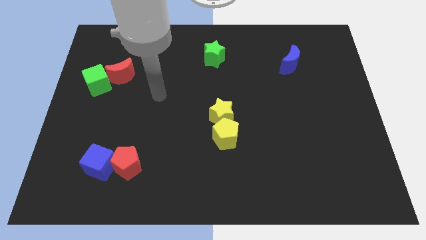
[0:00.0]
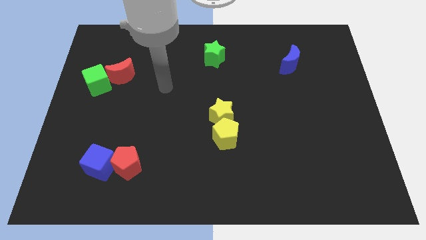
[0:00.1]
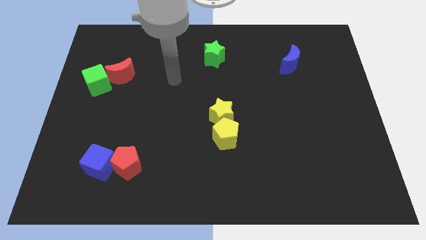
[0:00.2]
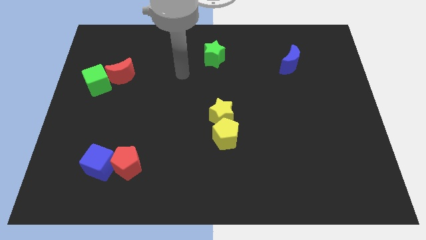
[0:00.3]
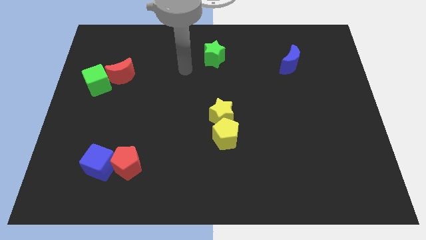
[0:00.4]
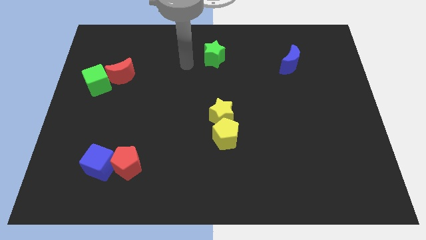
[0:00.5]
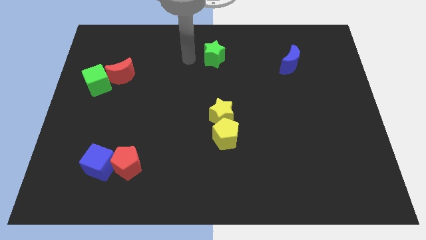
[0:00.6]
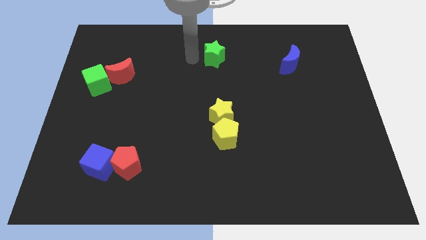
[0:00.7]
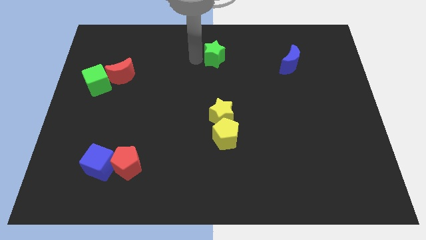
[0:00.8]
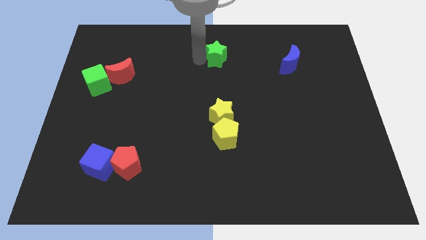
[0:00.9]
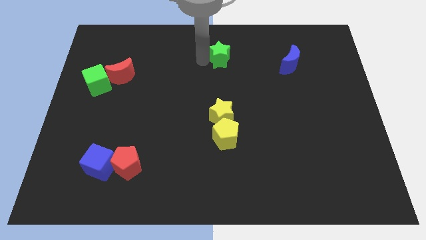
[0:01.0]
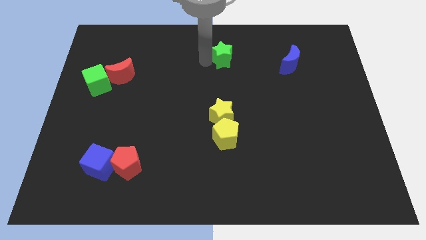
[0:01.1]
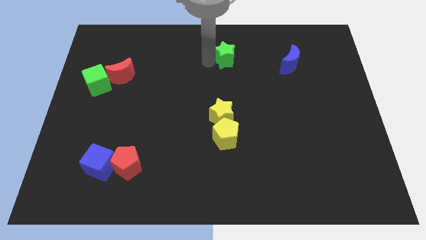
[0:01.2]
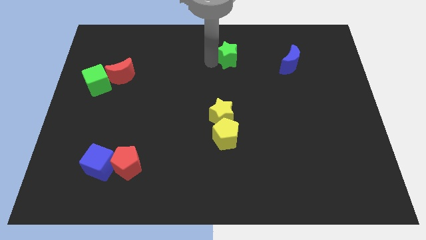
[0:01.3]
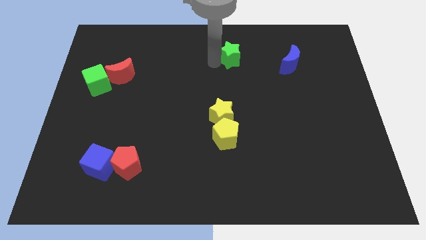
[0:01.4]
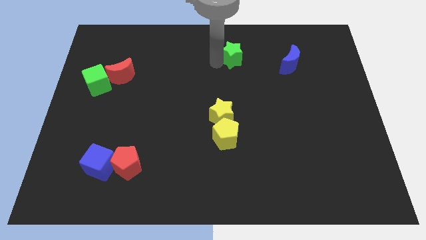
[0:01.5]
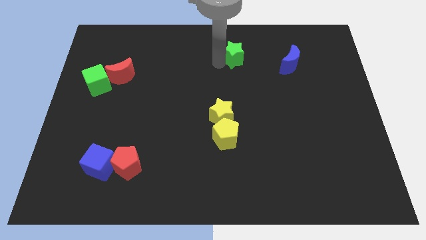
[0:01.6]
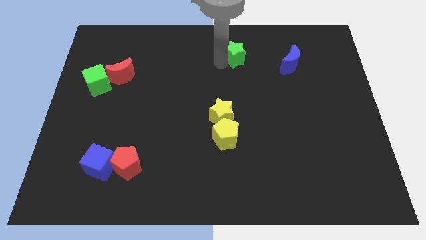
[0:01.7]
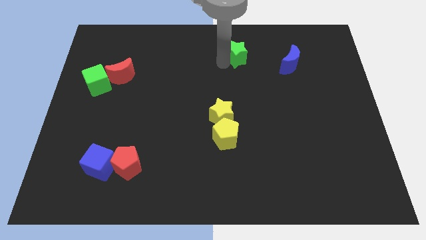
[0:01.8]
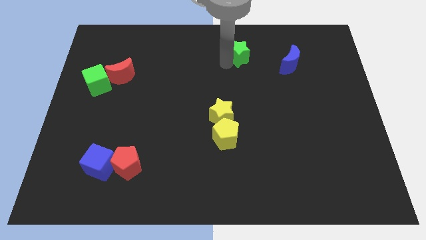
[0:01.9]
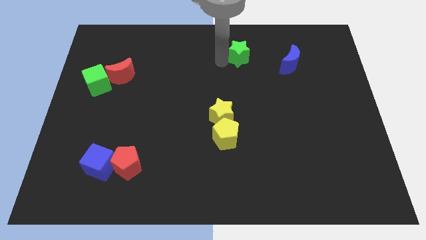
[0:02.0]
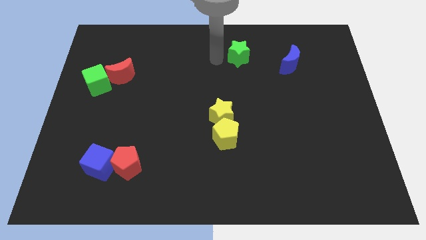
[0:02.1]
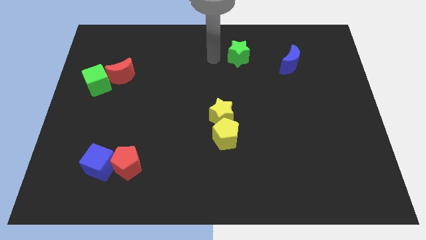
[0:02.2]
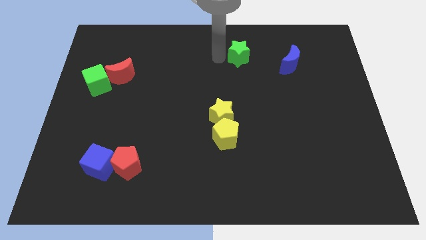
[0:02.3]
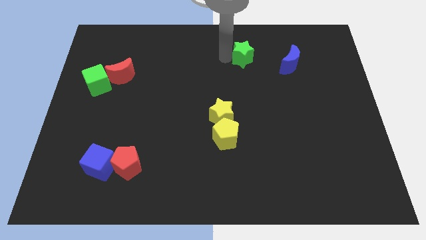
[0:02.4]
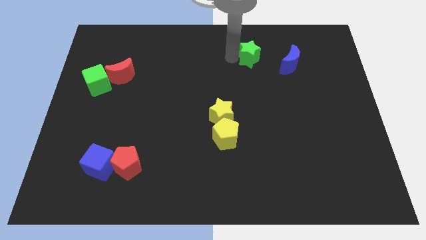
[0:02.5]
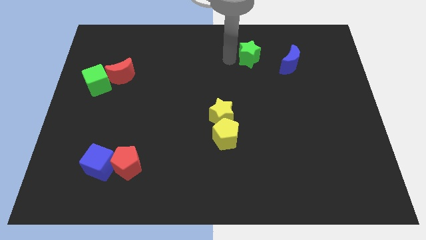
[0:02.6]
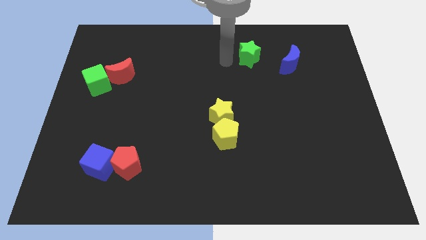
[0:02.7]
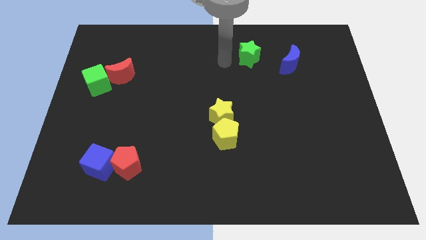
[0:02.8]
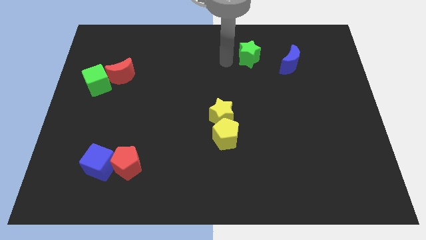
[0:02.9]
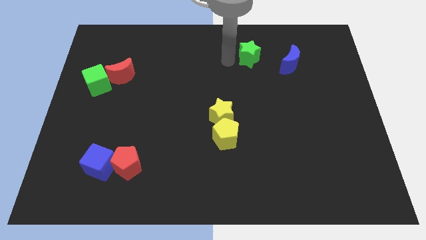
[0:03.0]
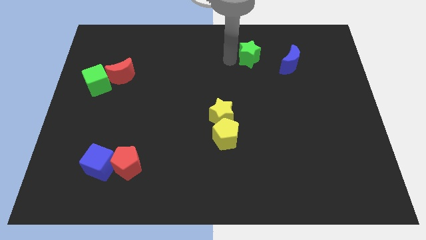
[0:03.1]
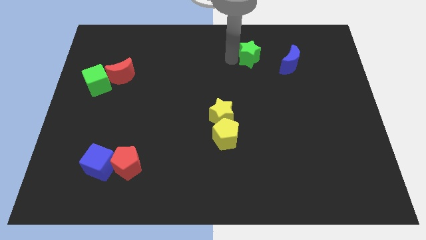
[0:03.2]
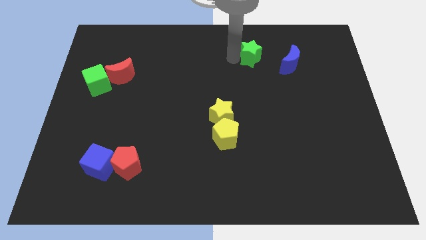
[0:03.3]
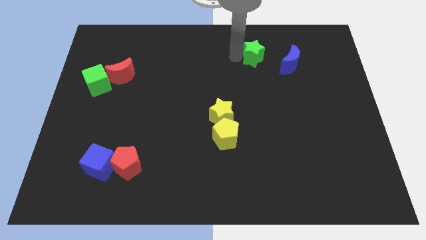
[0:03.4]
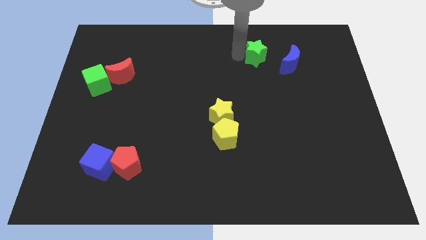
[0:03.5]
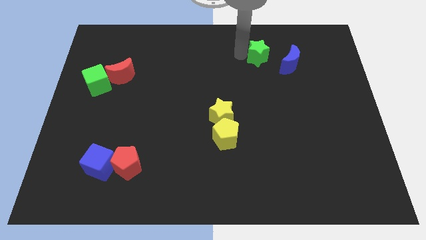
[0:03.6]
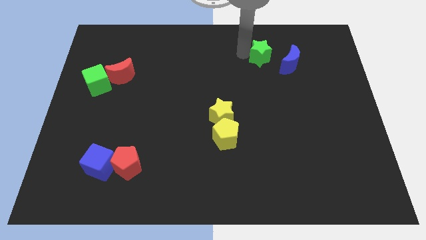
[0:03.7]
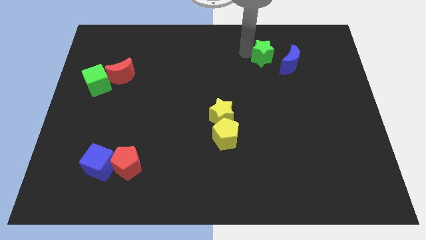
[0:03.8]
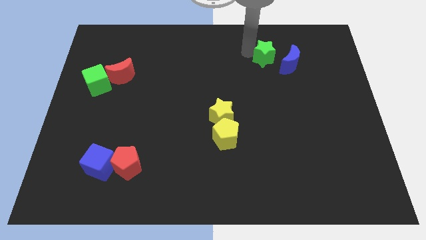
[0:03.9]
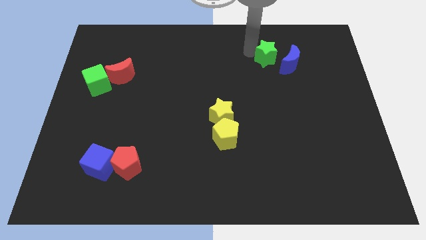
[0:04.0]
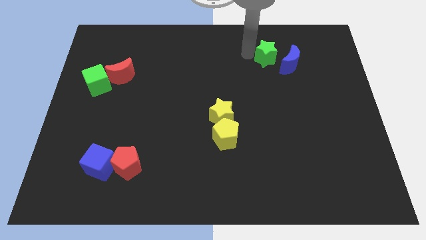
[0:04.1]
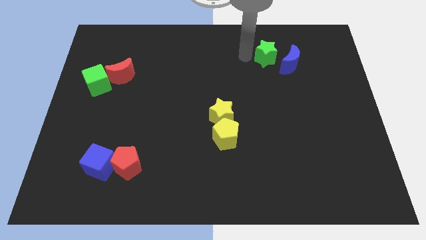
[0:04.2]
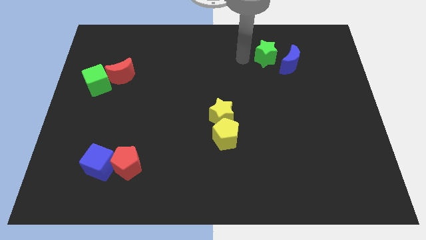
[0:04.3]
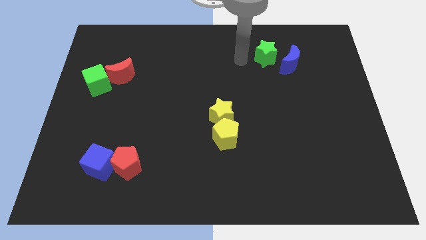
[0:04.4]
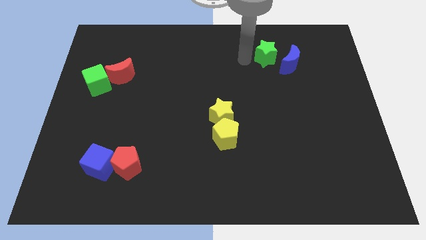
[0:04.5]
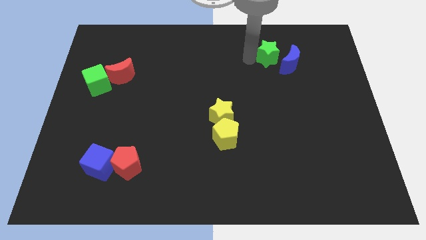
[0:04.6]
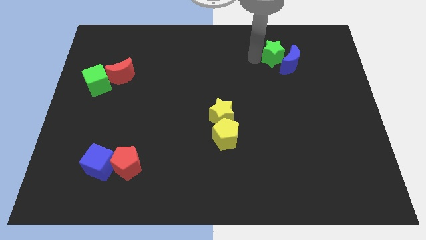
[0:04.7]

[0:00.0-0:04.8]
move the green star next to the blue moon

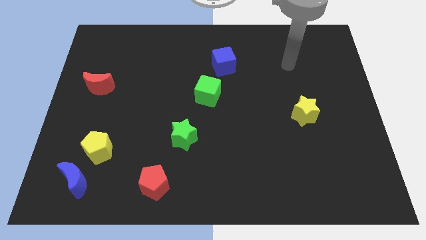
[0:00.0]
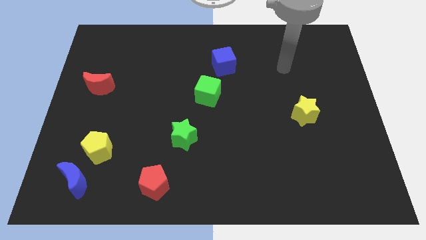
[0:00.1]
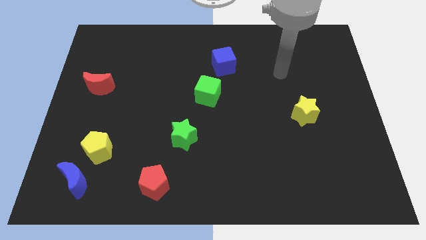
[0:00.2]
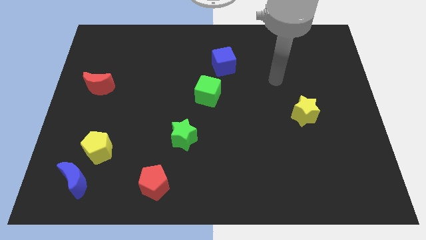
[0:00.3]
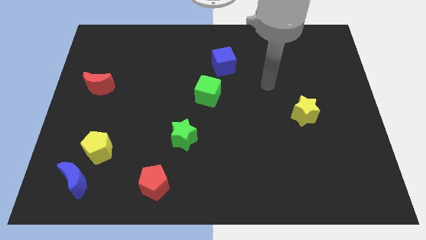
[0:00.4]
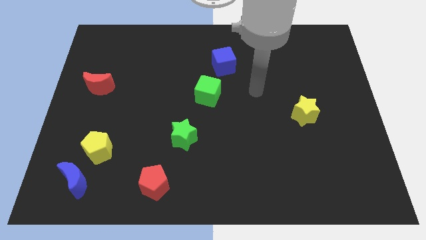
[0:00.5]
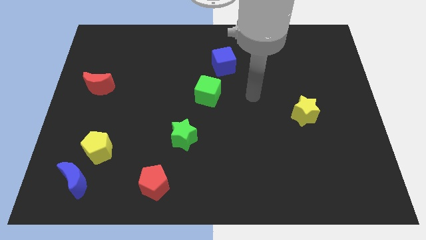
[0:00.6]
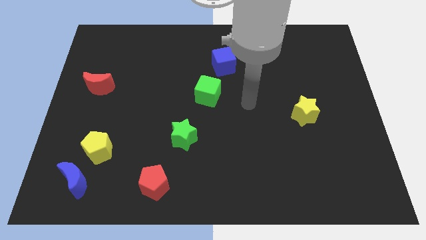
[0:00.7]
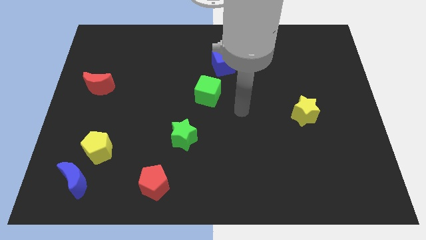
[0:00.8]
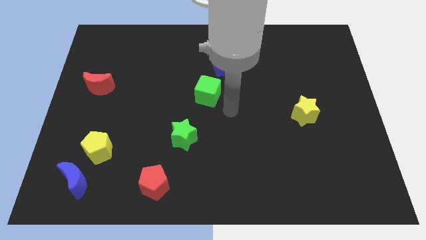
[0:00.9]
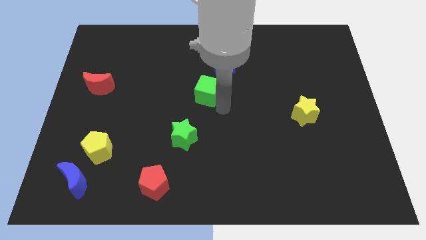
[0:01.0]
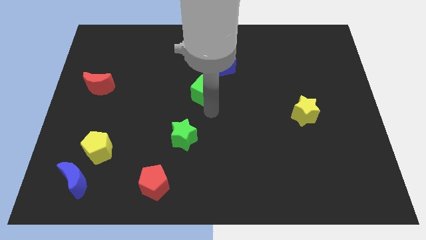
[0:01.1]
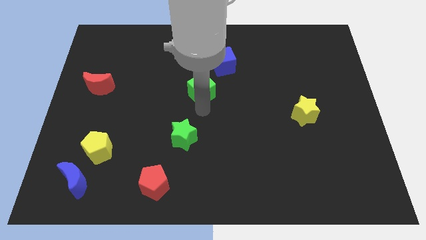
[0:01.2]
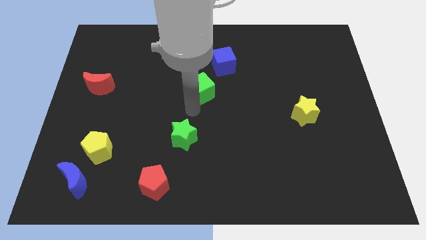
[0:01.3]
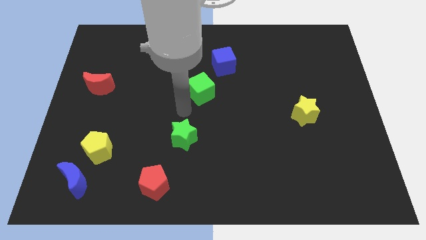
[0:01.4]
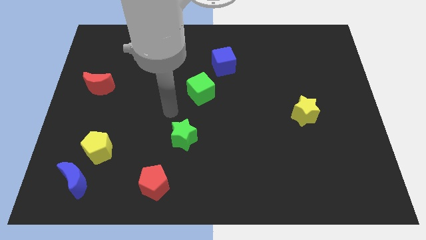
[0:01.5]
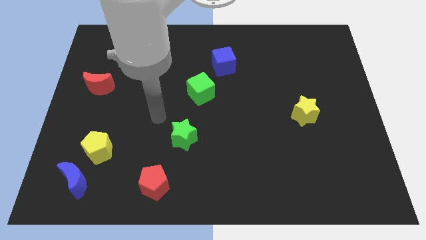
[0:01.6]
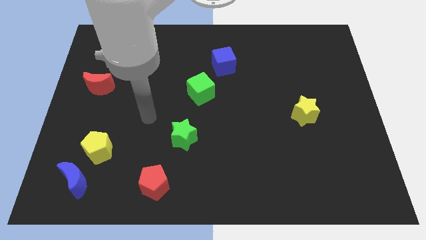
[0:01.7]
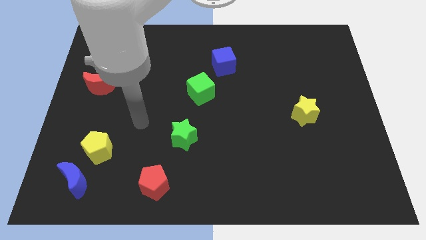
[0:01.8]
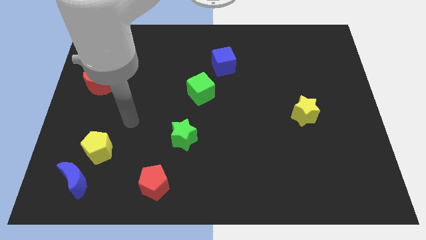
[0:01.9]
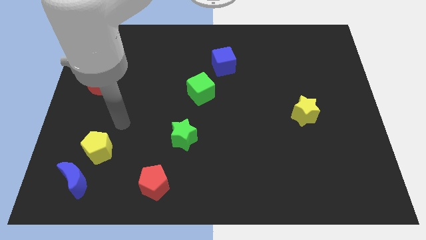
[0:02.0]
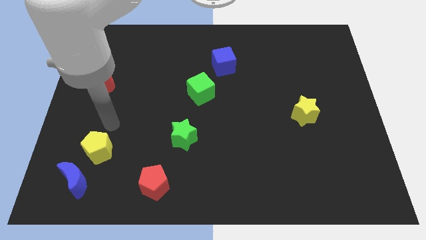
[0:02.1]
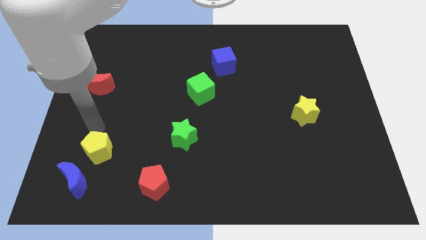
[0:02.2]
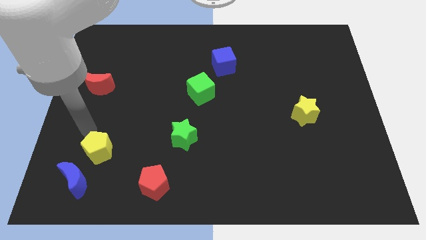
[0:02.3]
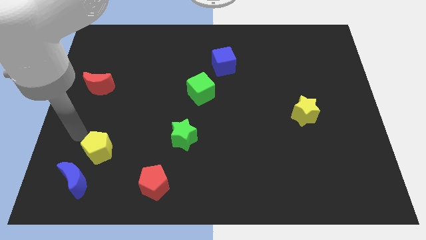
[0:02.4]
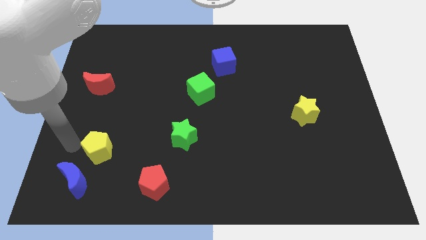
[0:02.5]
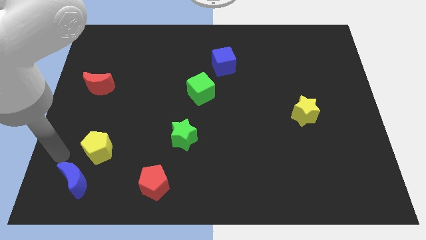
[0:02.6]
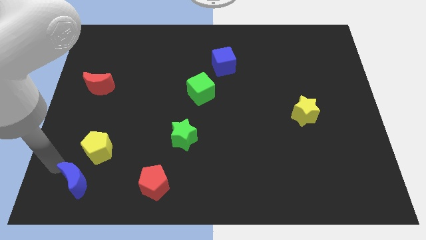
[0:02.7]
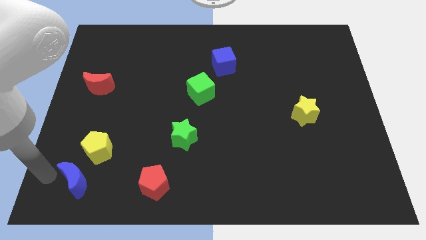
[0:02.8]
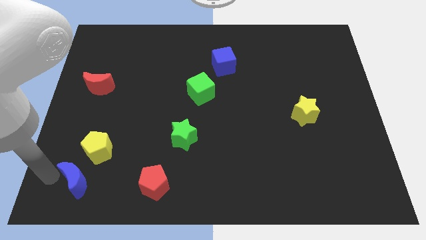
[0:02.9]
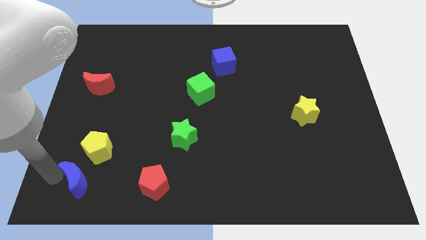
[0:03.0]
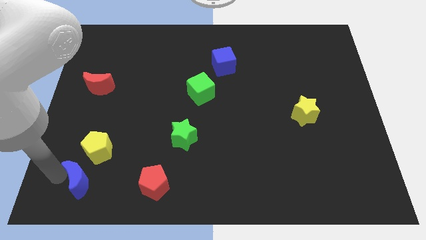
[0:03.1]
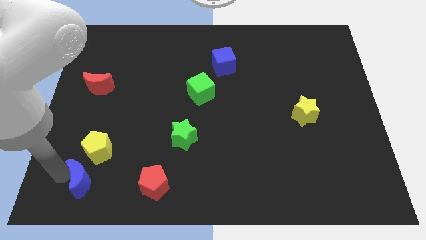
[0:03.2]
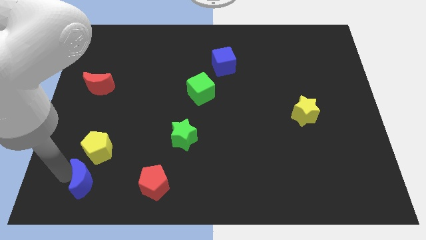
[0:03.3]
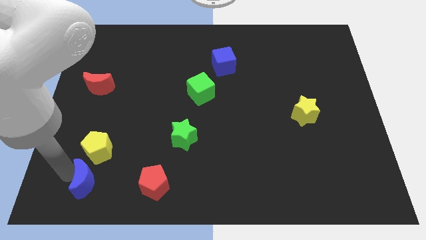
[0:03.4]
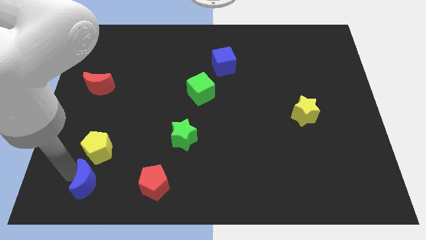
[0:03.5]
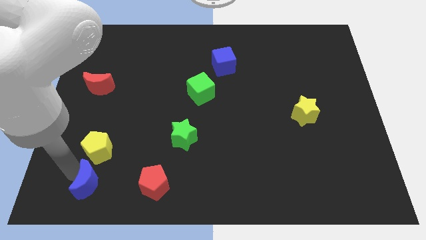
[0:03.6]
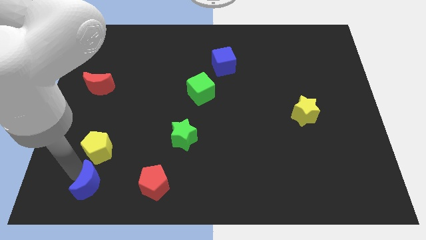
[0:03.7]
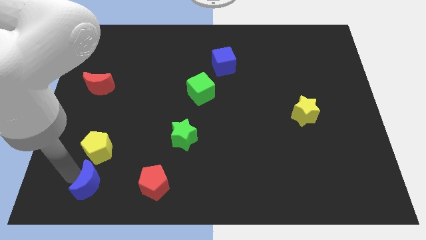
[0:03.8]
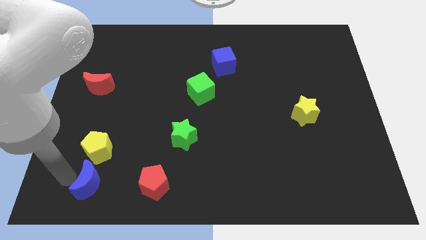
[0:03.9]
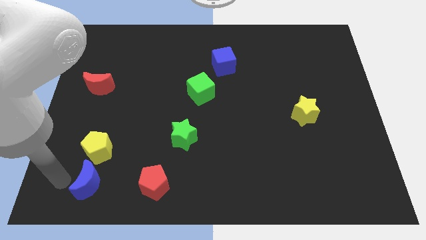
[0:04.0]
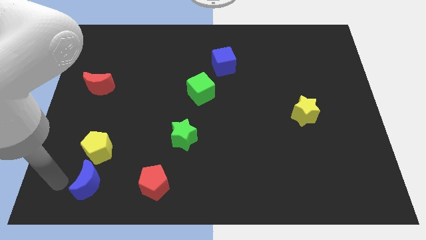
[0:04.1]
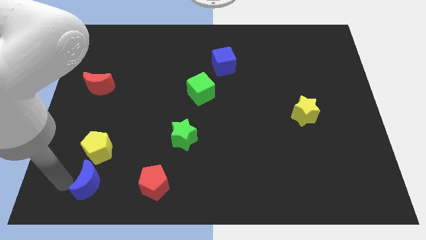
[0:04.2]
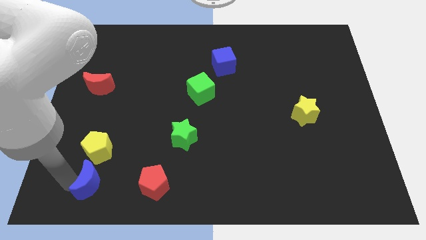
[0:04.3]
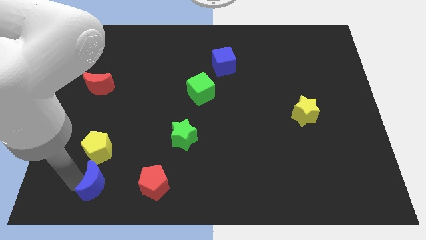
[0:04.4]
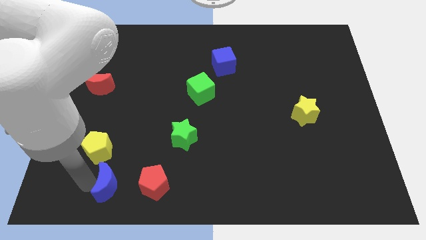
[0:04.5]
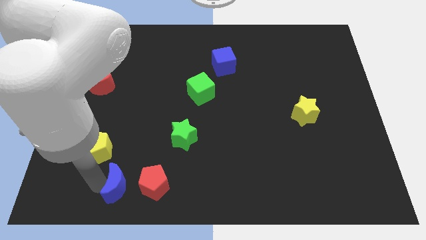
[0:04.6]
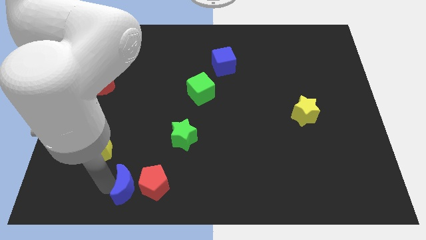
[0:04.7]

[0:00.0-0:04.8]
put the blue moon towards the red pentagon
